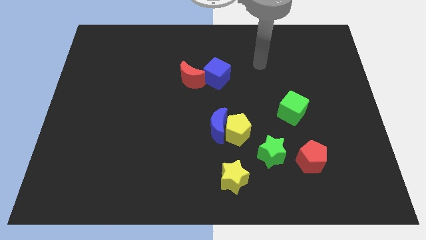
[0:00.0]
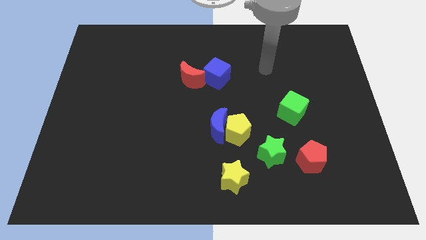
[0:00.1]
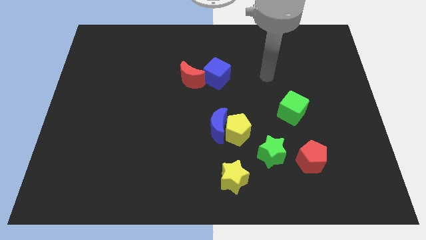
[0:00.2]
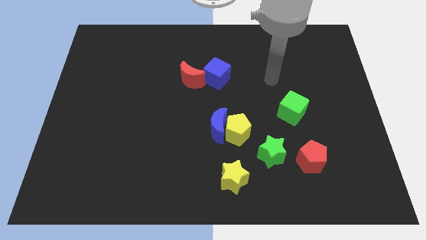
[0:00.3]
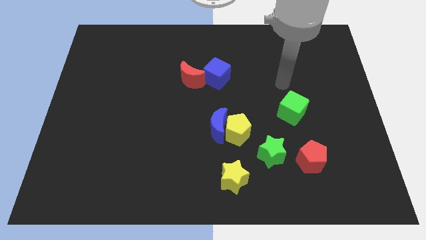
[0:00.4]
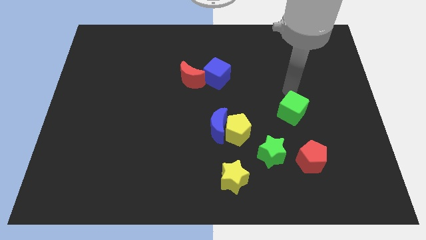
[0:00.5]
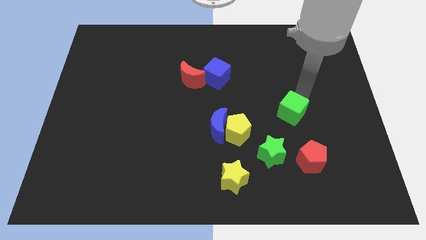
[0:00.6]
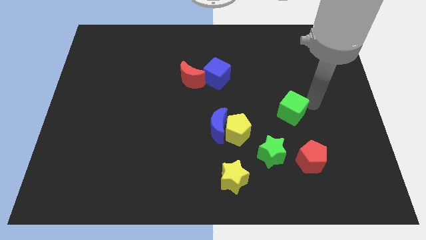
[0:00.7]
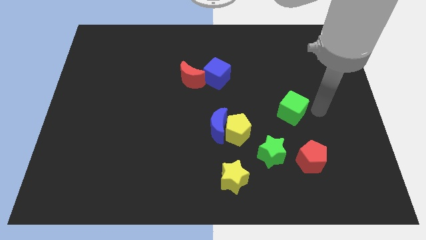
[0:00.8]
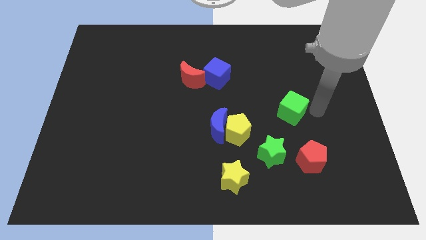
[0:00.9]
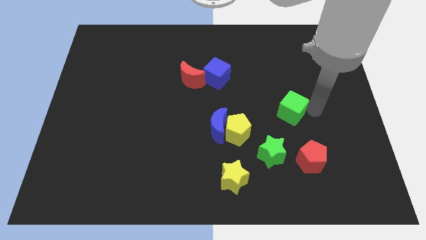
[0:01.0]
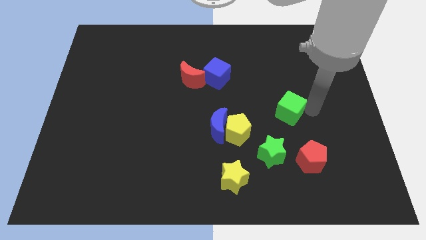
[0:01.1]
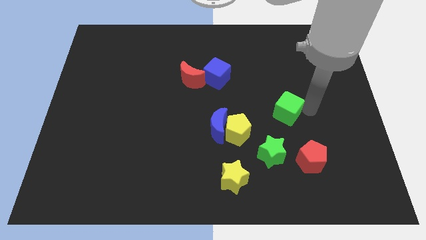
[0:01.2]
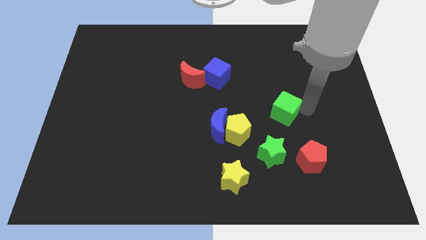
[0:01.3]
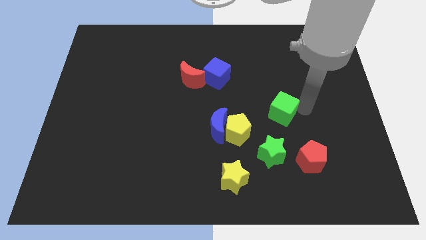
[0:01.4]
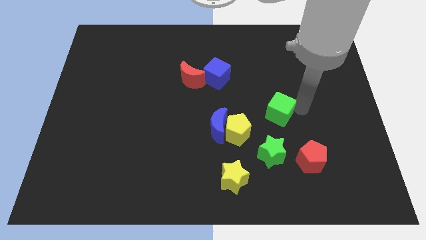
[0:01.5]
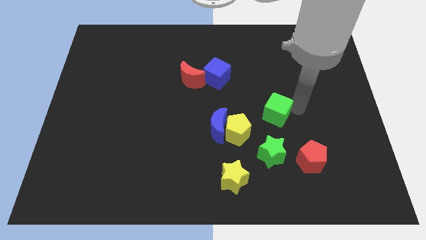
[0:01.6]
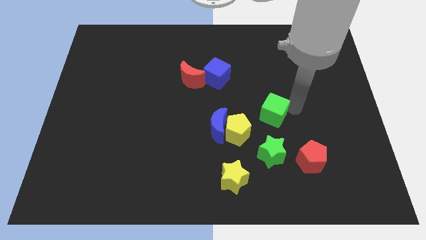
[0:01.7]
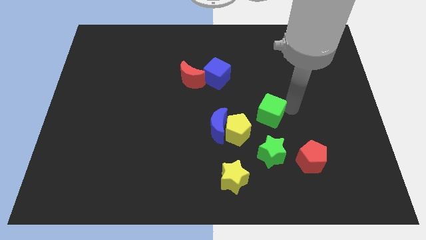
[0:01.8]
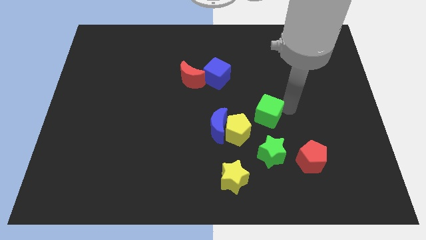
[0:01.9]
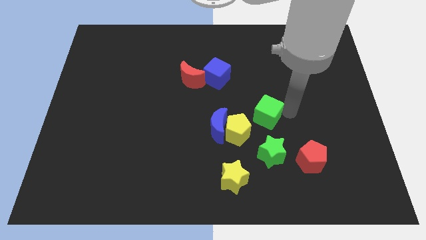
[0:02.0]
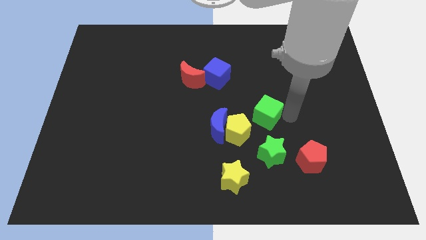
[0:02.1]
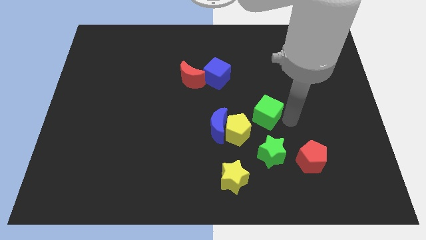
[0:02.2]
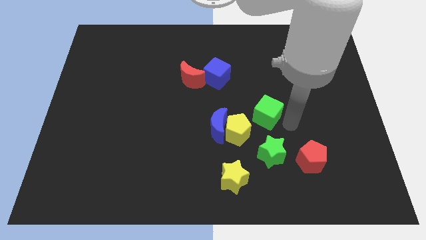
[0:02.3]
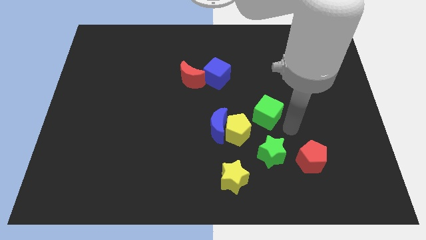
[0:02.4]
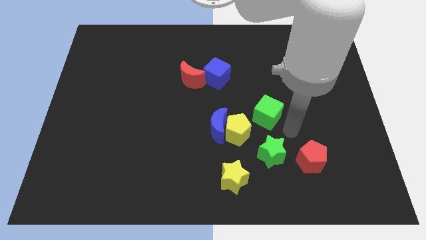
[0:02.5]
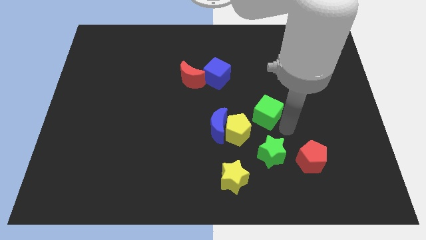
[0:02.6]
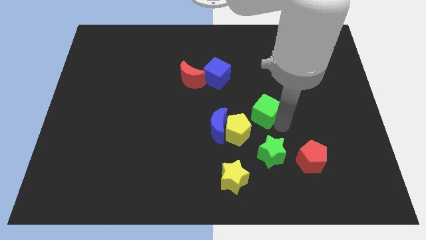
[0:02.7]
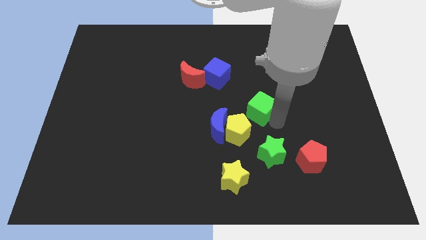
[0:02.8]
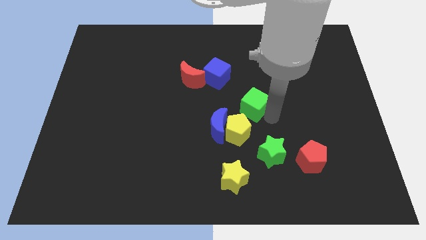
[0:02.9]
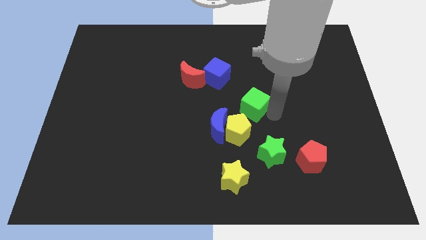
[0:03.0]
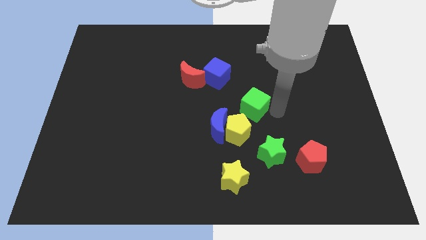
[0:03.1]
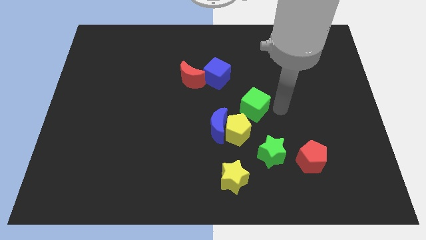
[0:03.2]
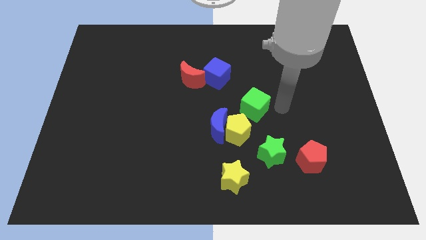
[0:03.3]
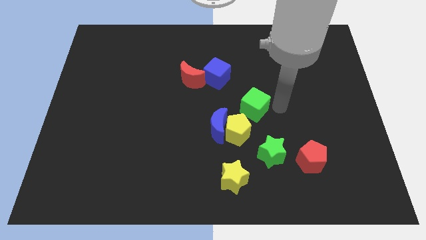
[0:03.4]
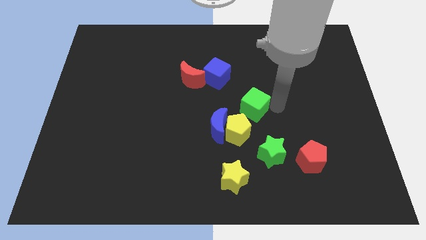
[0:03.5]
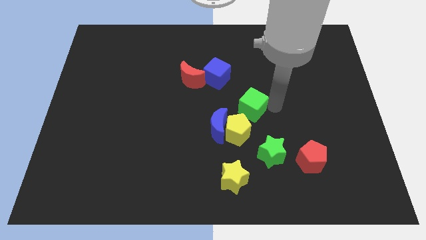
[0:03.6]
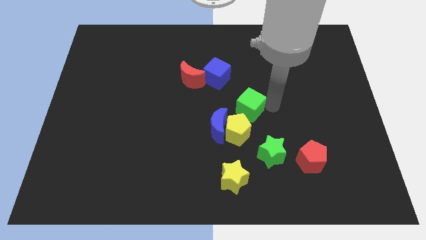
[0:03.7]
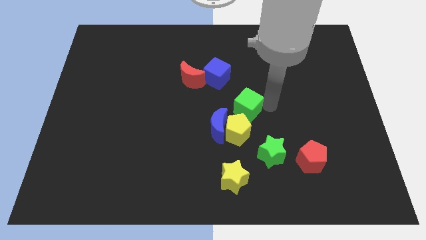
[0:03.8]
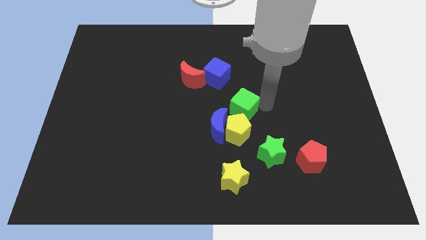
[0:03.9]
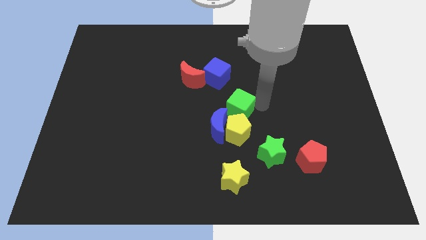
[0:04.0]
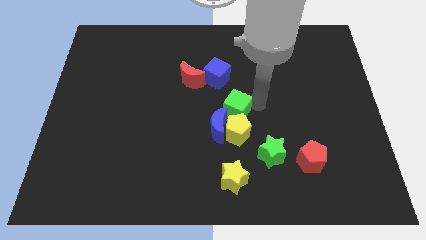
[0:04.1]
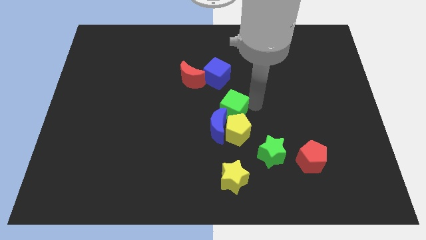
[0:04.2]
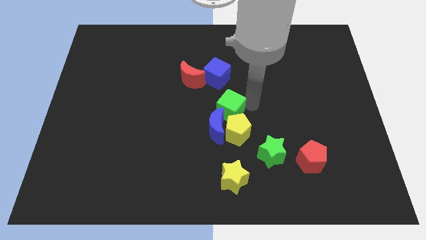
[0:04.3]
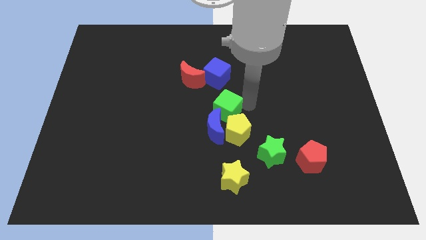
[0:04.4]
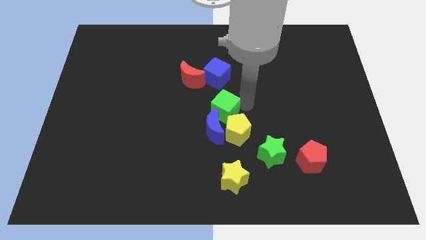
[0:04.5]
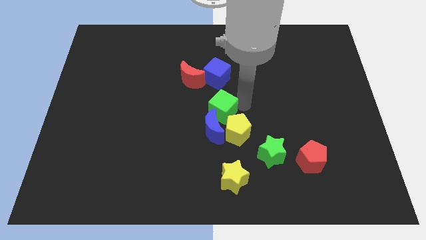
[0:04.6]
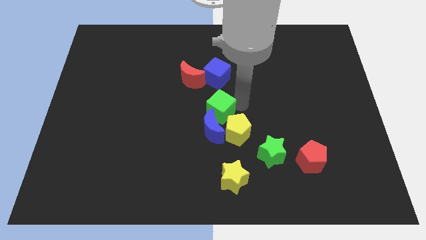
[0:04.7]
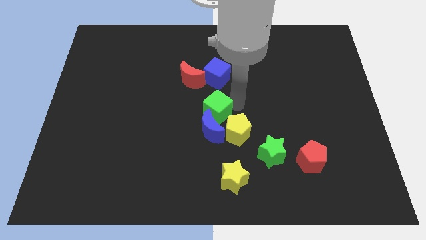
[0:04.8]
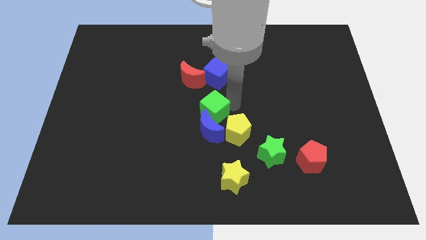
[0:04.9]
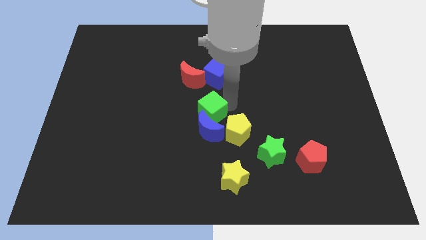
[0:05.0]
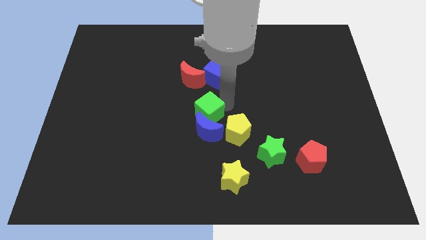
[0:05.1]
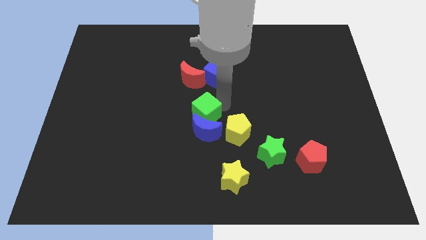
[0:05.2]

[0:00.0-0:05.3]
slide the green cube left

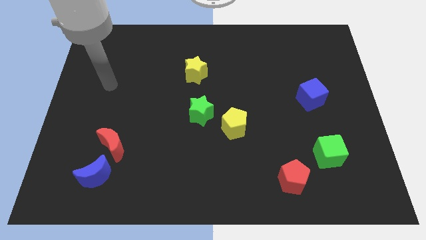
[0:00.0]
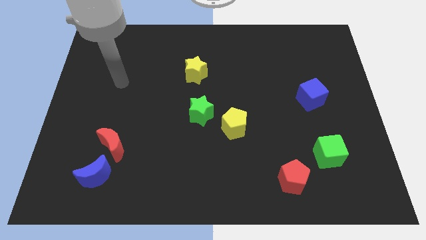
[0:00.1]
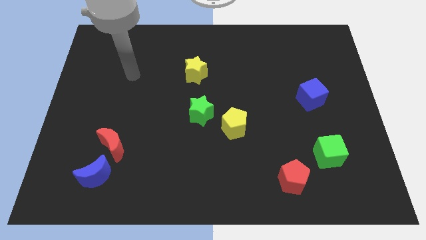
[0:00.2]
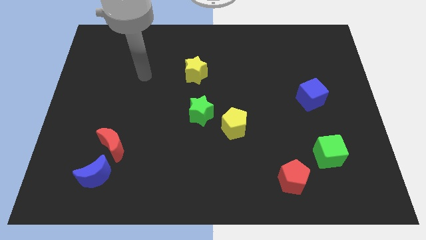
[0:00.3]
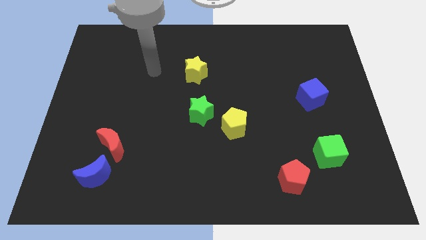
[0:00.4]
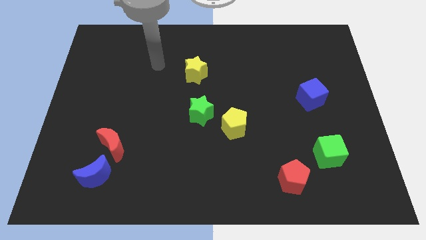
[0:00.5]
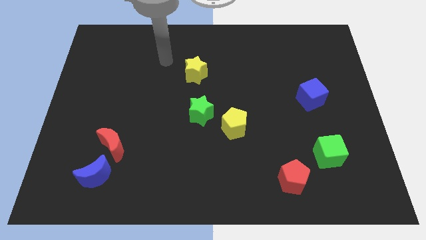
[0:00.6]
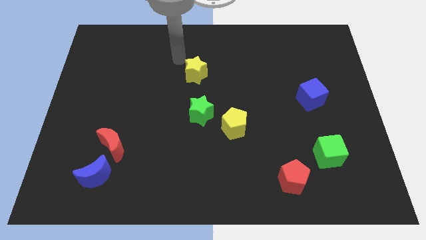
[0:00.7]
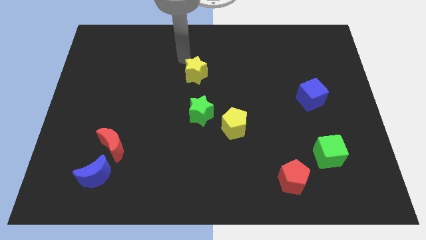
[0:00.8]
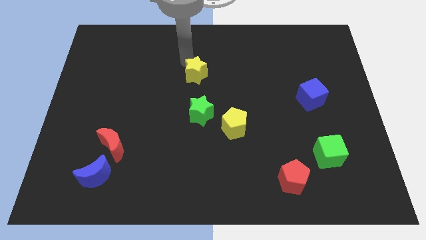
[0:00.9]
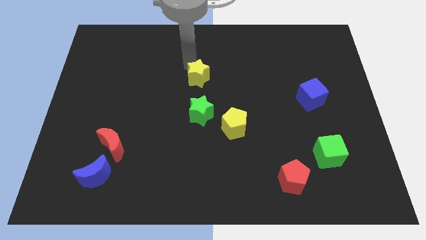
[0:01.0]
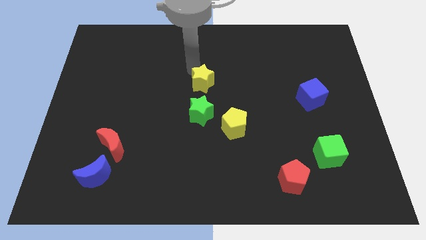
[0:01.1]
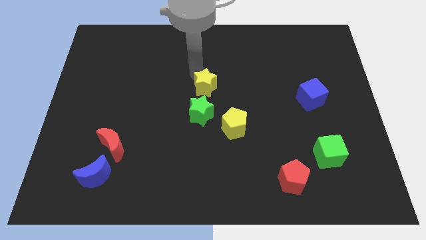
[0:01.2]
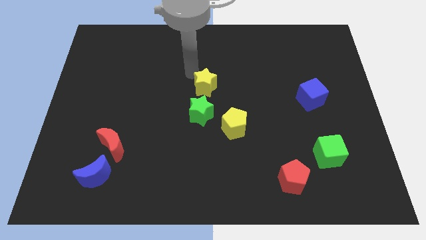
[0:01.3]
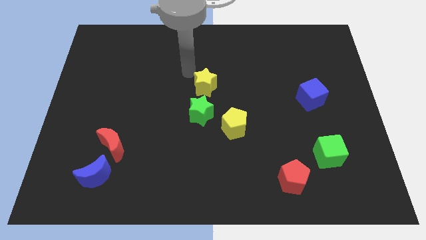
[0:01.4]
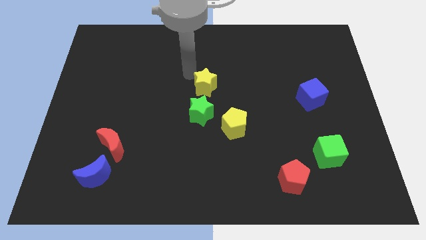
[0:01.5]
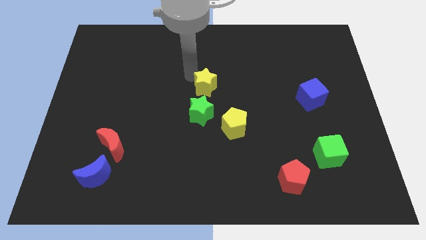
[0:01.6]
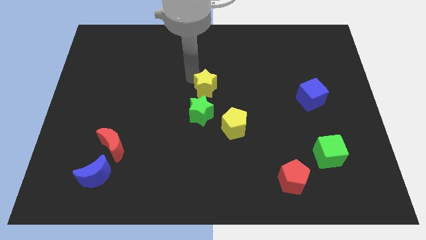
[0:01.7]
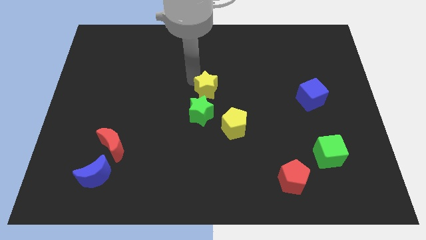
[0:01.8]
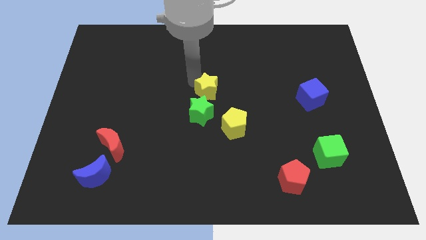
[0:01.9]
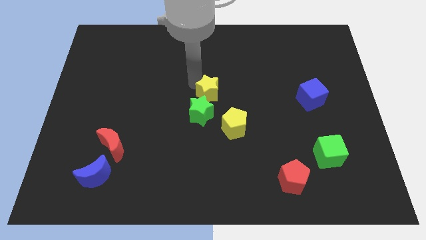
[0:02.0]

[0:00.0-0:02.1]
slightly move the yellow star downwards and right

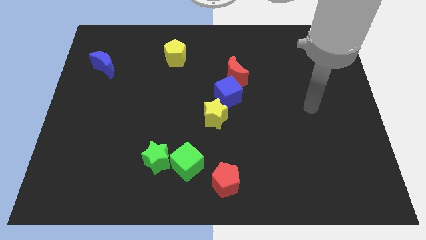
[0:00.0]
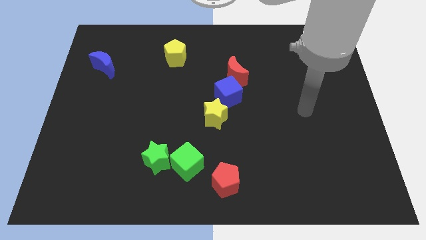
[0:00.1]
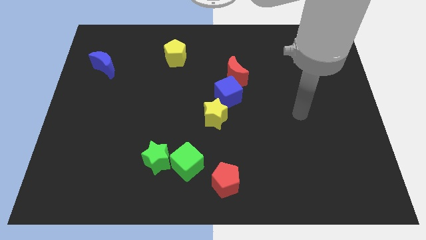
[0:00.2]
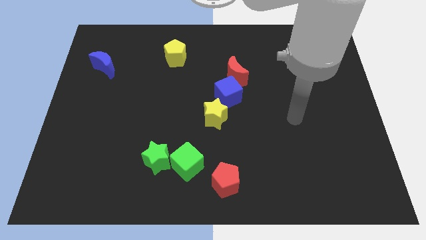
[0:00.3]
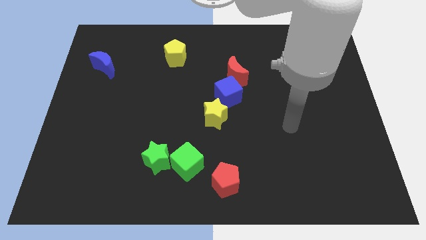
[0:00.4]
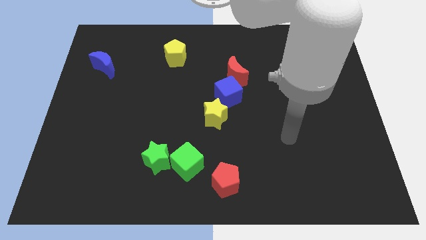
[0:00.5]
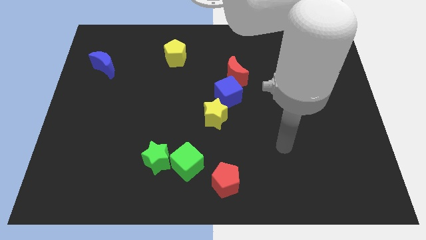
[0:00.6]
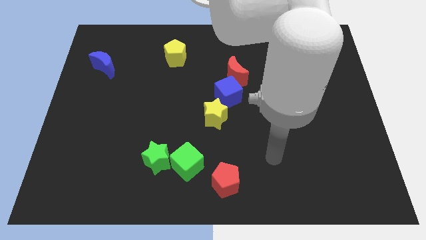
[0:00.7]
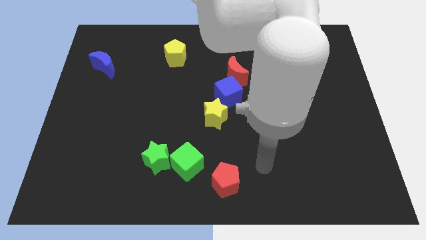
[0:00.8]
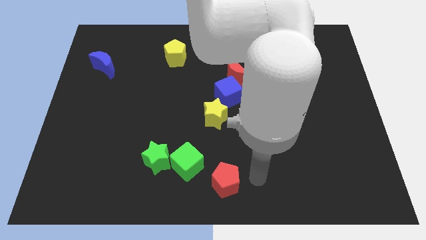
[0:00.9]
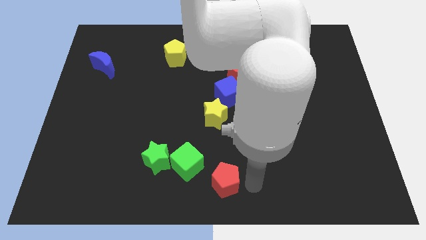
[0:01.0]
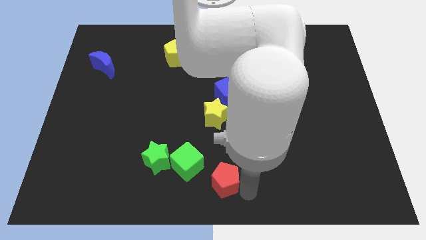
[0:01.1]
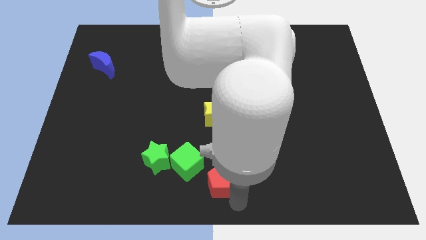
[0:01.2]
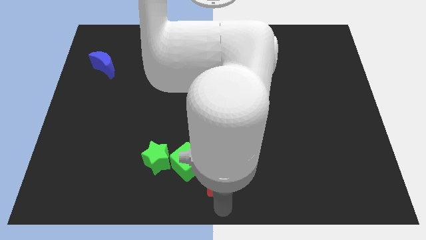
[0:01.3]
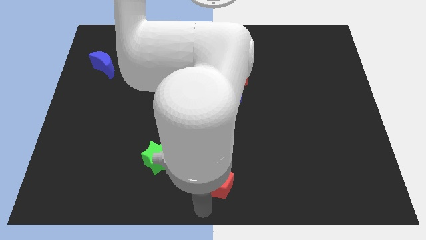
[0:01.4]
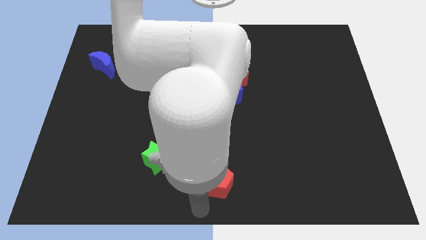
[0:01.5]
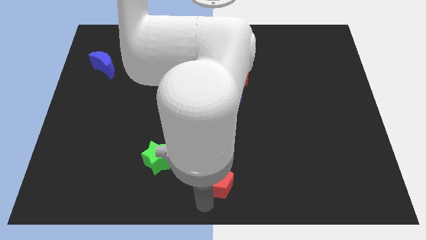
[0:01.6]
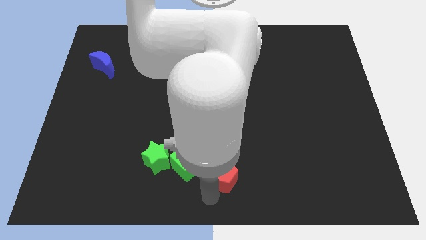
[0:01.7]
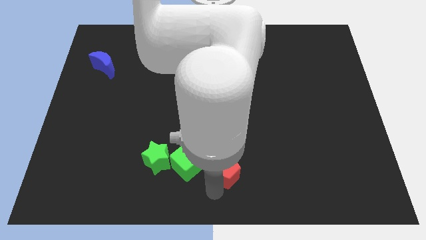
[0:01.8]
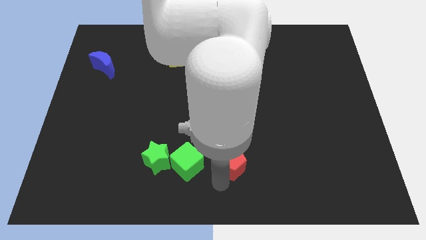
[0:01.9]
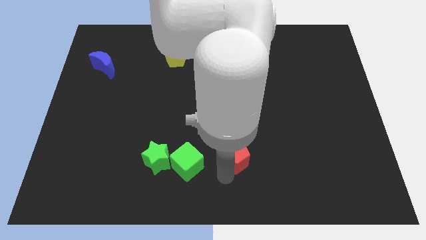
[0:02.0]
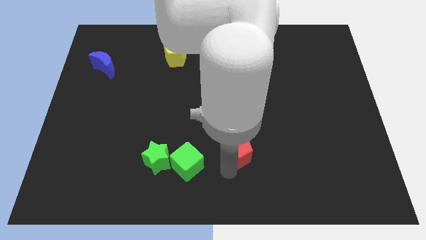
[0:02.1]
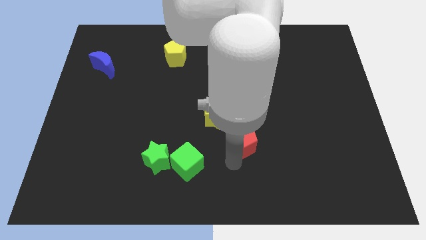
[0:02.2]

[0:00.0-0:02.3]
slightly move the red pentagon up and then to the right
